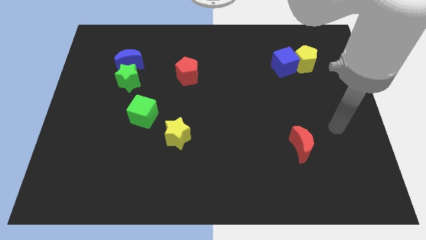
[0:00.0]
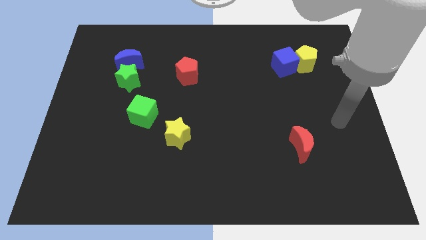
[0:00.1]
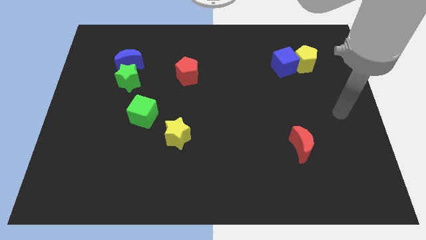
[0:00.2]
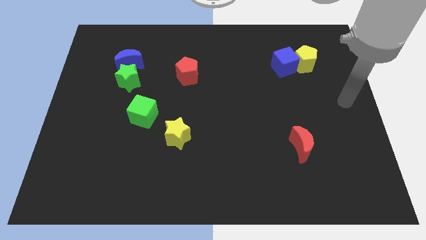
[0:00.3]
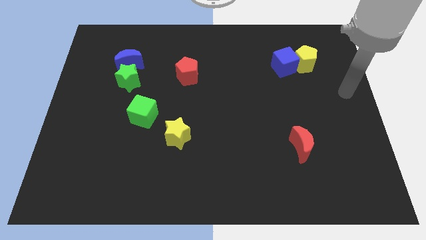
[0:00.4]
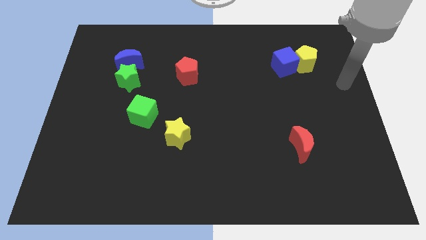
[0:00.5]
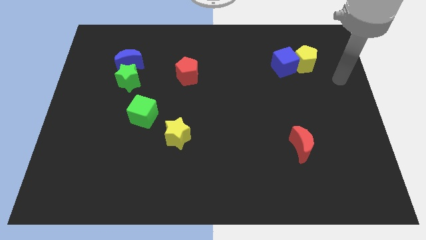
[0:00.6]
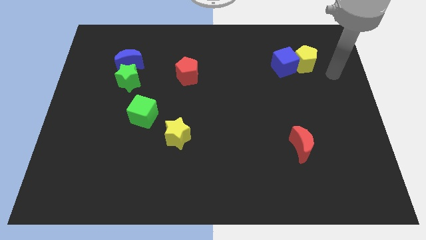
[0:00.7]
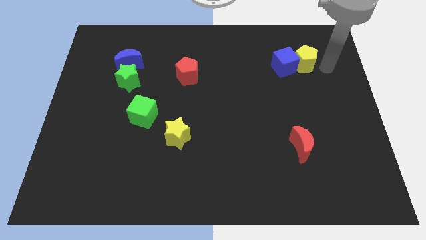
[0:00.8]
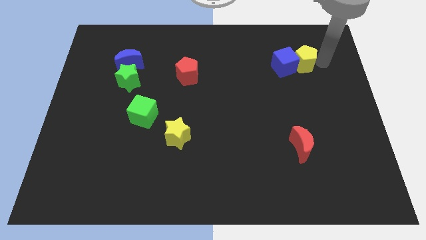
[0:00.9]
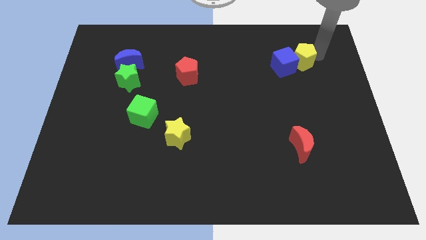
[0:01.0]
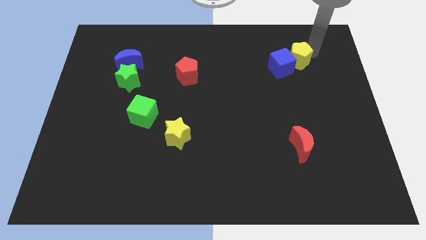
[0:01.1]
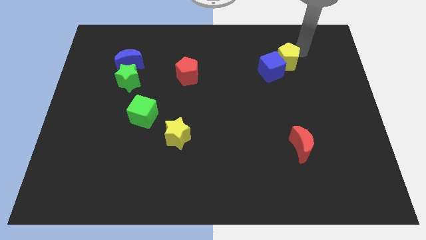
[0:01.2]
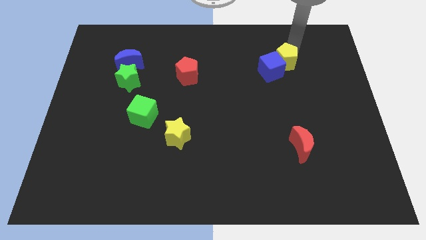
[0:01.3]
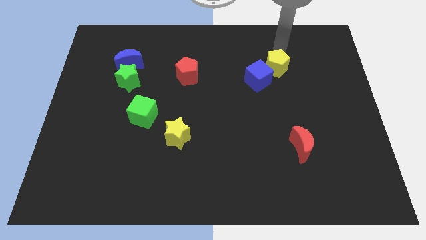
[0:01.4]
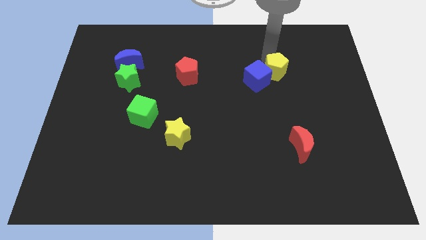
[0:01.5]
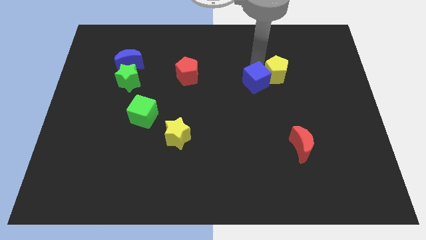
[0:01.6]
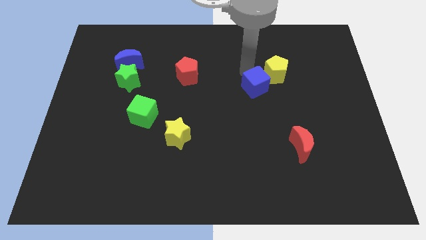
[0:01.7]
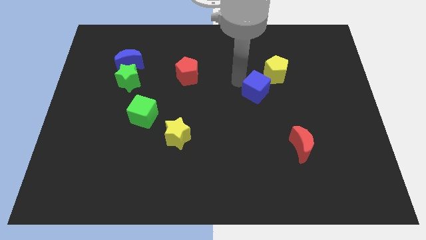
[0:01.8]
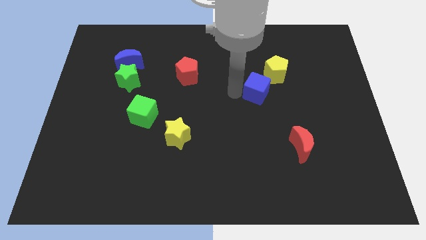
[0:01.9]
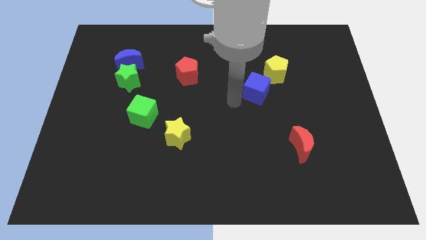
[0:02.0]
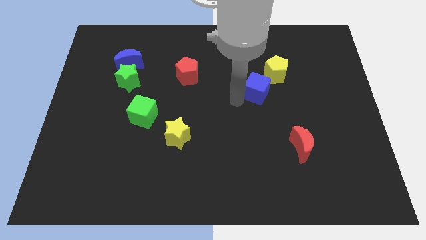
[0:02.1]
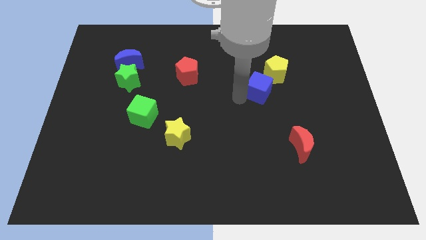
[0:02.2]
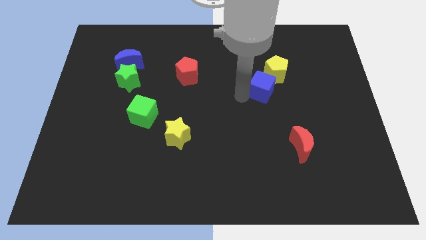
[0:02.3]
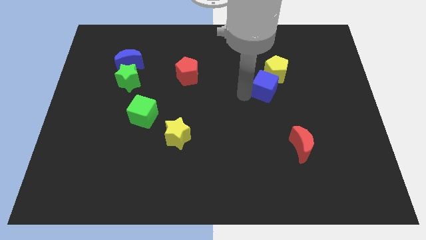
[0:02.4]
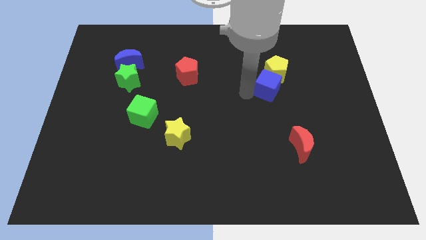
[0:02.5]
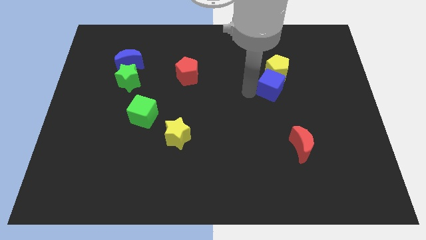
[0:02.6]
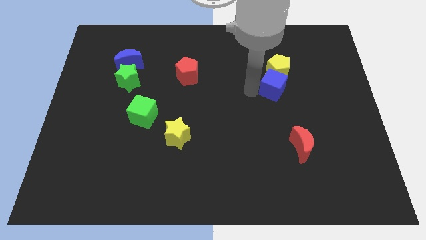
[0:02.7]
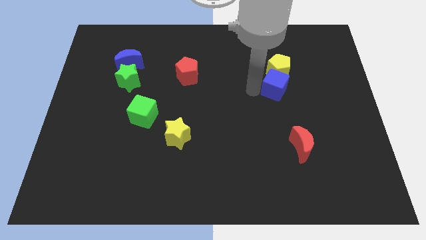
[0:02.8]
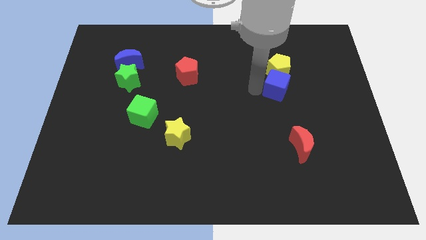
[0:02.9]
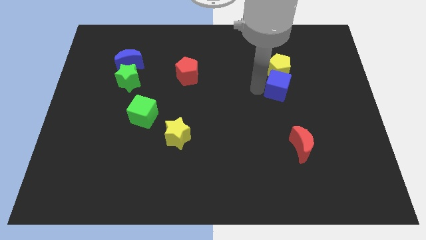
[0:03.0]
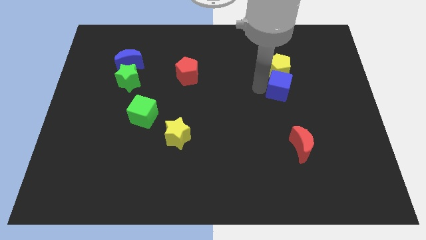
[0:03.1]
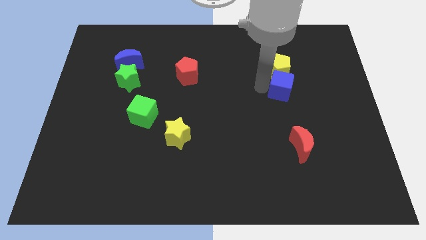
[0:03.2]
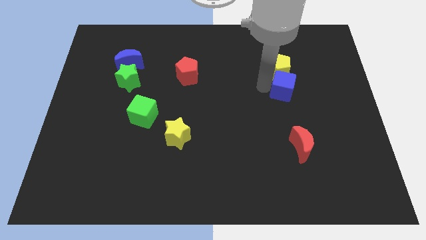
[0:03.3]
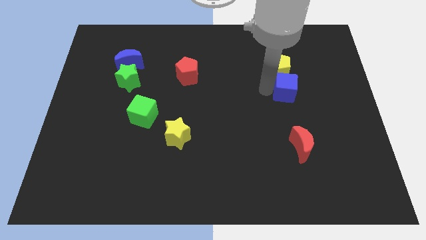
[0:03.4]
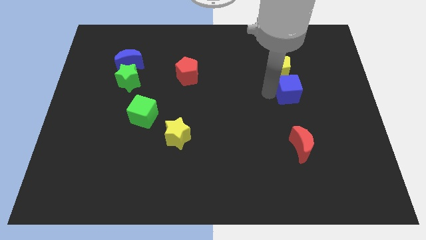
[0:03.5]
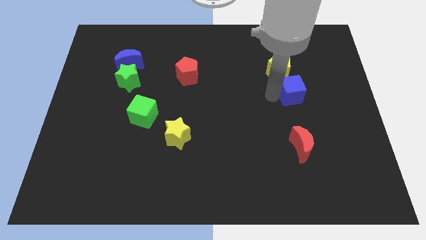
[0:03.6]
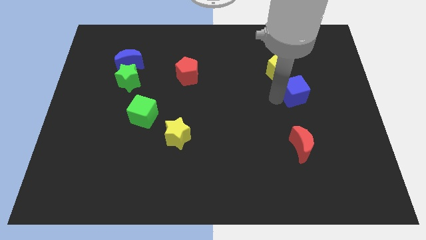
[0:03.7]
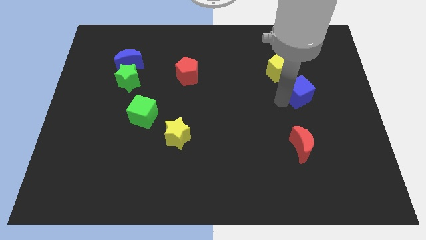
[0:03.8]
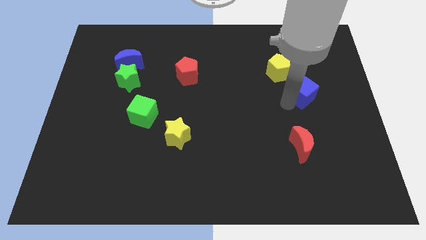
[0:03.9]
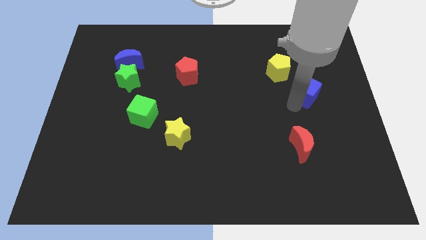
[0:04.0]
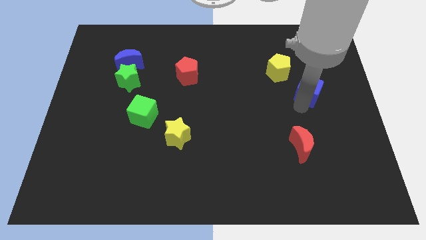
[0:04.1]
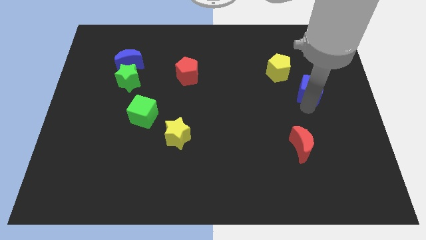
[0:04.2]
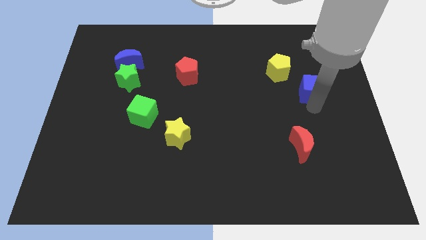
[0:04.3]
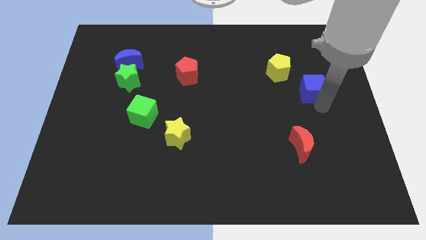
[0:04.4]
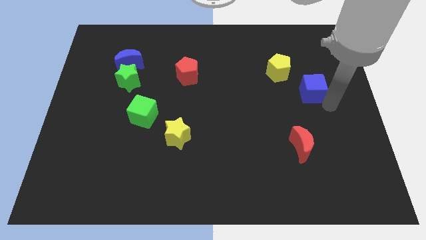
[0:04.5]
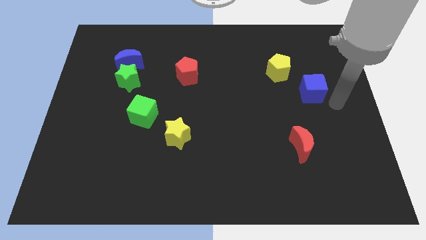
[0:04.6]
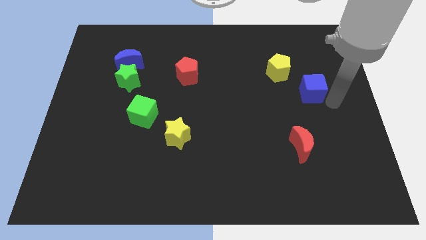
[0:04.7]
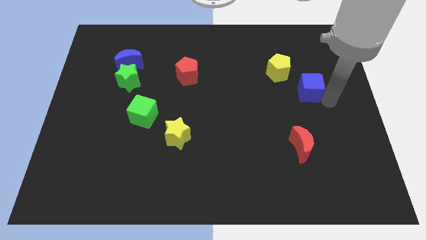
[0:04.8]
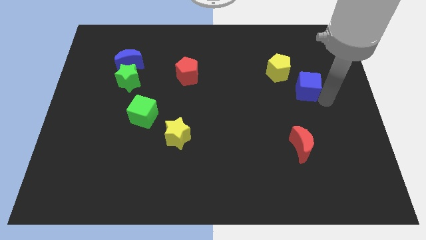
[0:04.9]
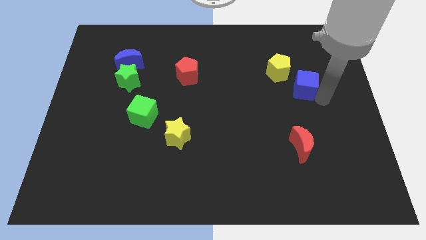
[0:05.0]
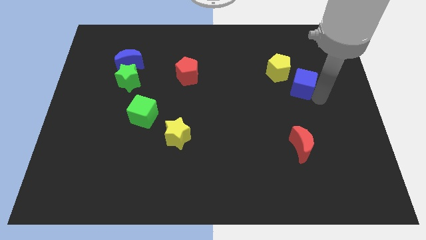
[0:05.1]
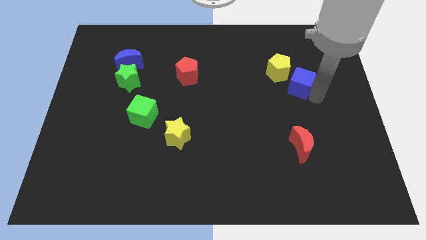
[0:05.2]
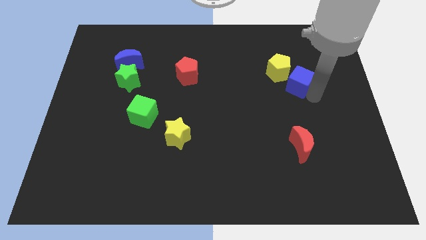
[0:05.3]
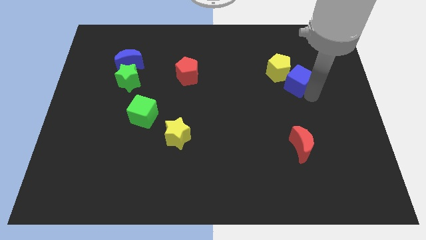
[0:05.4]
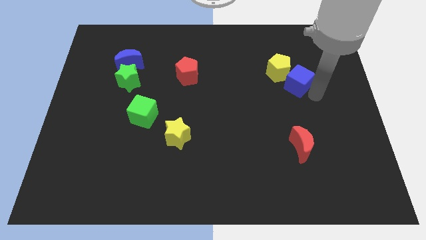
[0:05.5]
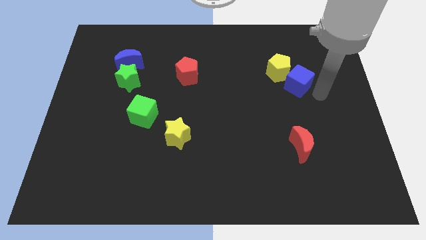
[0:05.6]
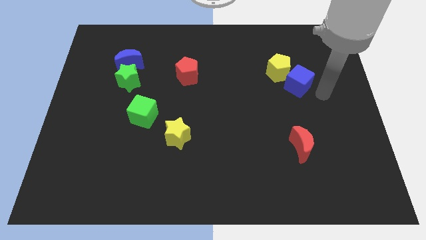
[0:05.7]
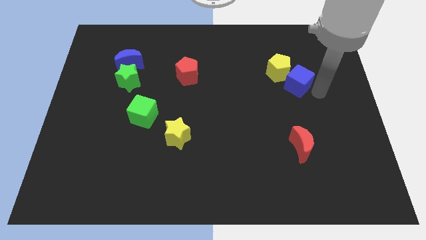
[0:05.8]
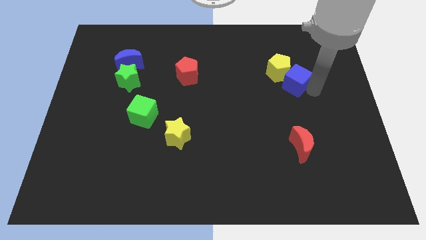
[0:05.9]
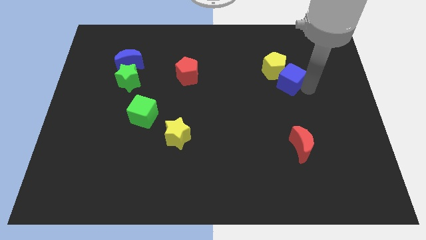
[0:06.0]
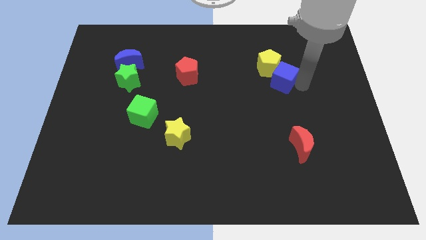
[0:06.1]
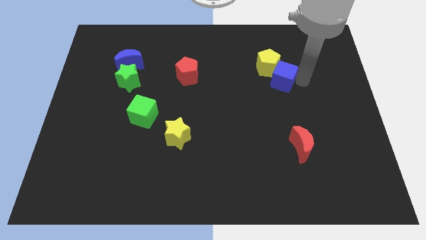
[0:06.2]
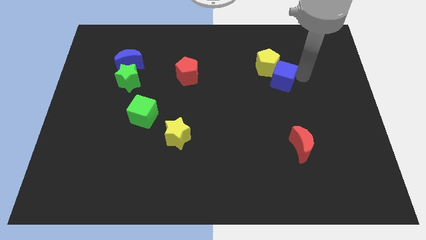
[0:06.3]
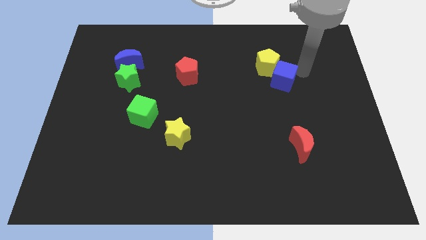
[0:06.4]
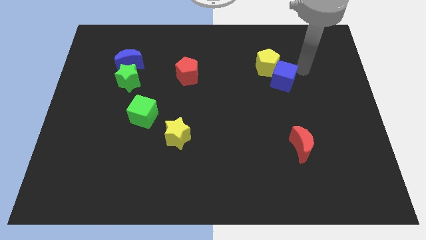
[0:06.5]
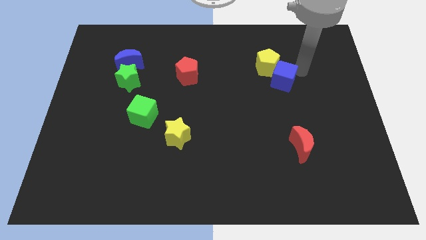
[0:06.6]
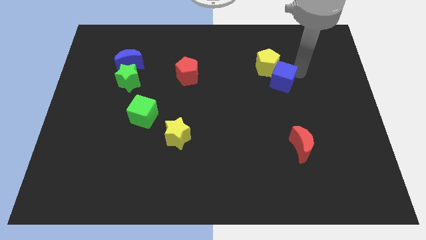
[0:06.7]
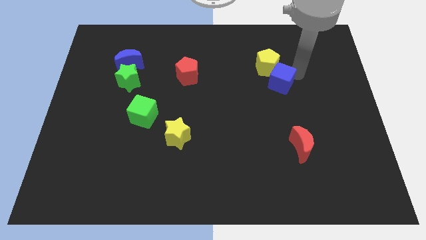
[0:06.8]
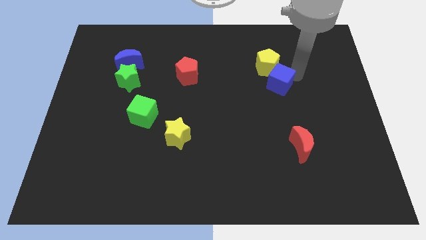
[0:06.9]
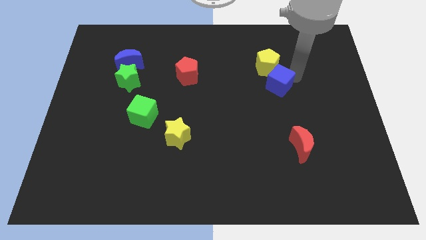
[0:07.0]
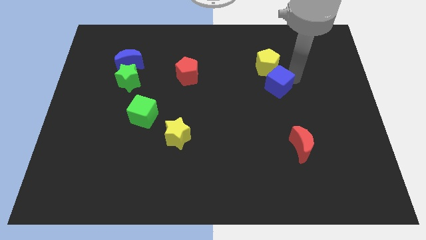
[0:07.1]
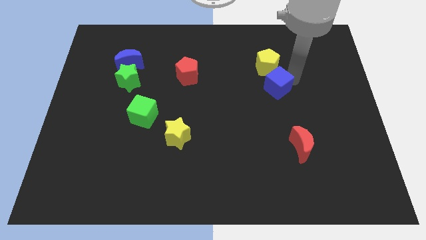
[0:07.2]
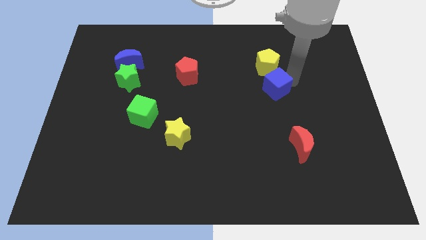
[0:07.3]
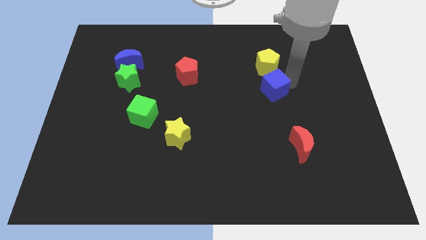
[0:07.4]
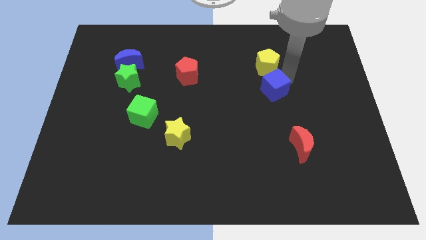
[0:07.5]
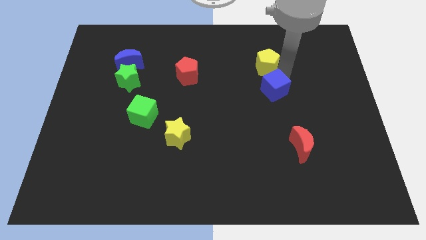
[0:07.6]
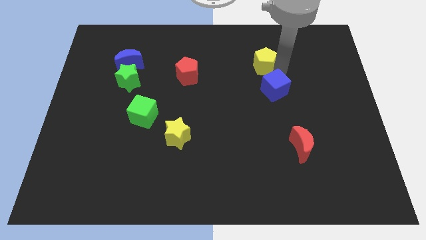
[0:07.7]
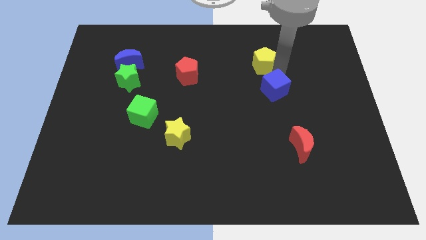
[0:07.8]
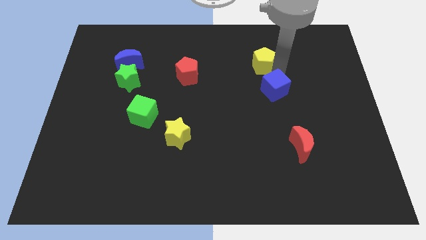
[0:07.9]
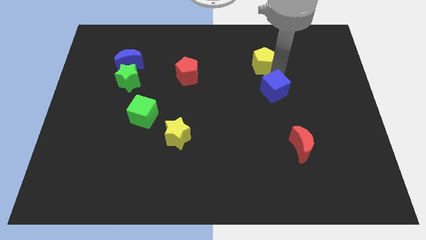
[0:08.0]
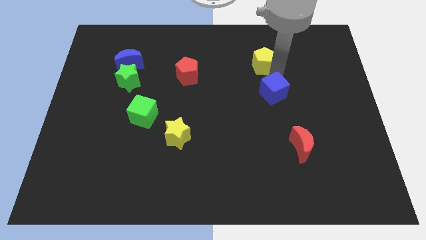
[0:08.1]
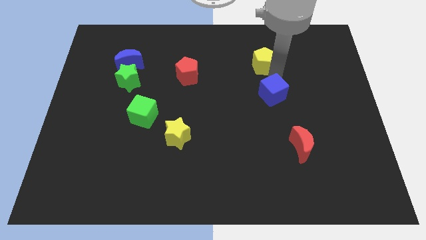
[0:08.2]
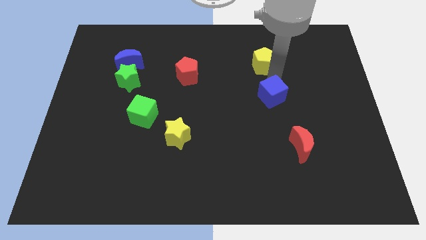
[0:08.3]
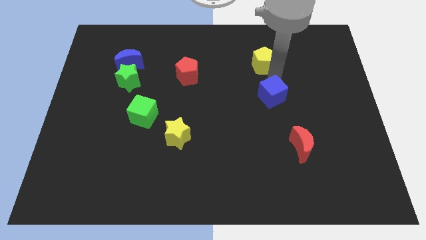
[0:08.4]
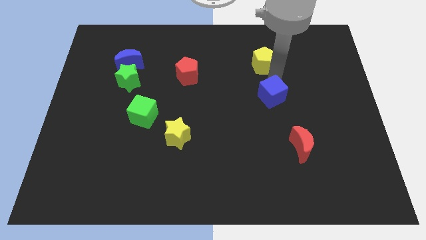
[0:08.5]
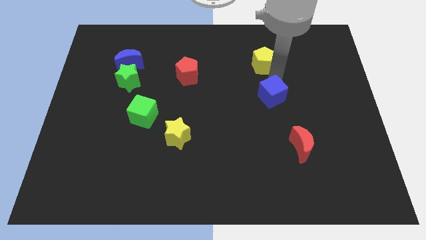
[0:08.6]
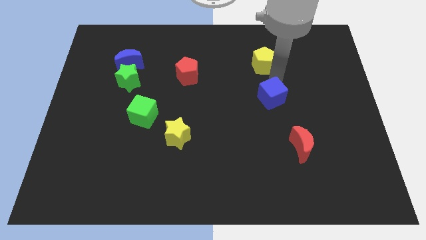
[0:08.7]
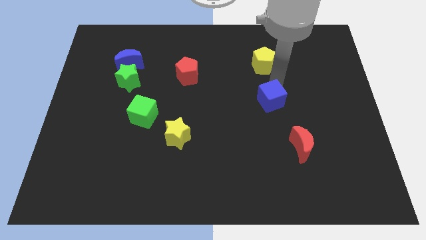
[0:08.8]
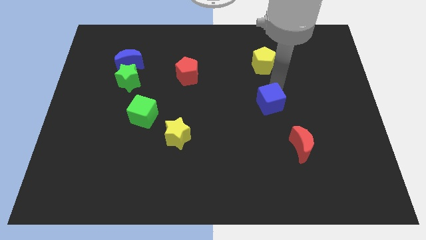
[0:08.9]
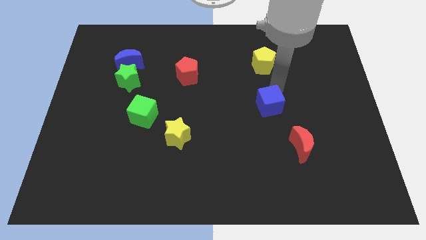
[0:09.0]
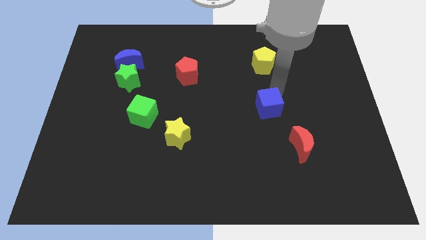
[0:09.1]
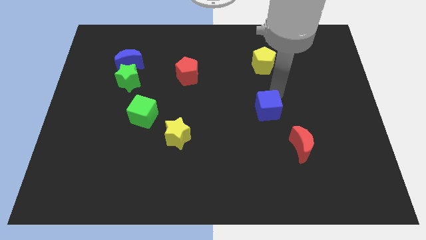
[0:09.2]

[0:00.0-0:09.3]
push the blue cube diagonally up and to the left of the red moon
